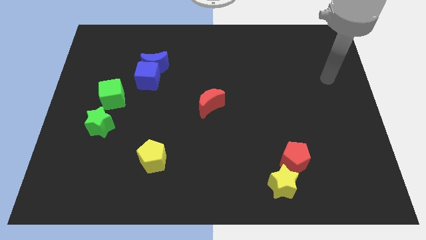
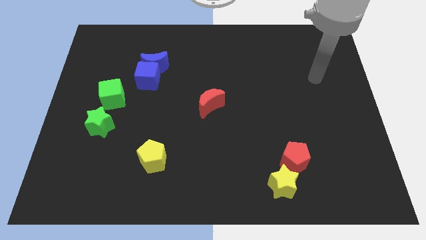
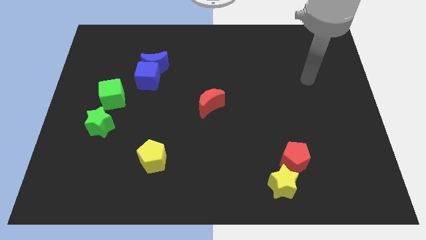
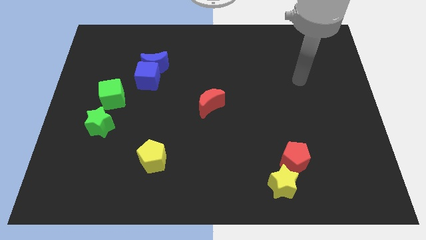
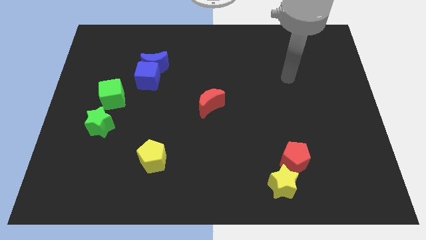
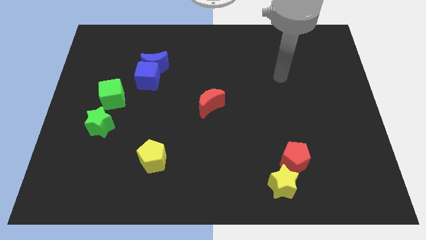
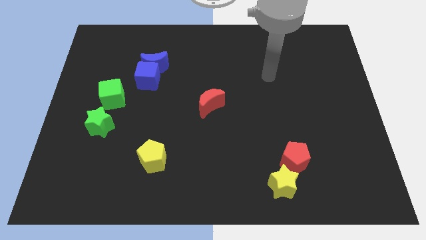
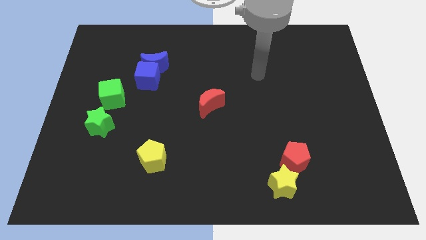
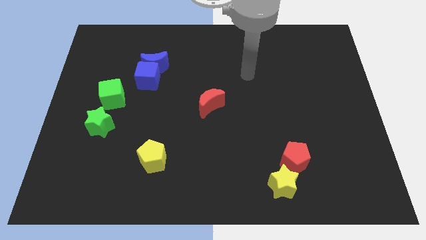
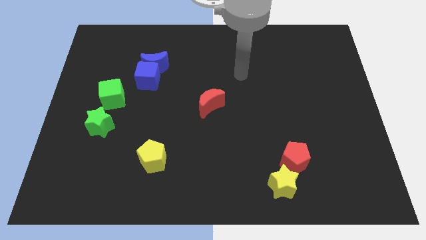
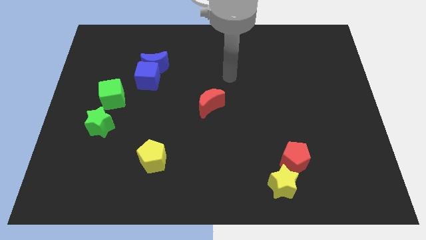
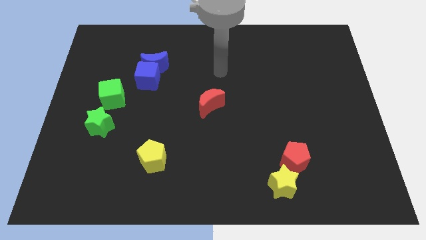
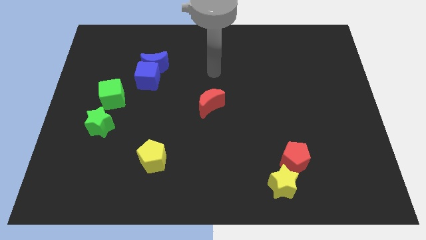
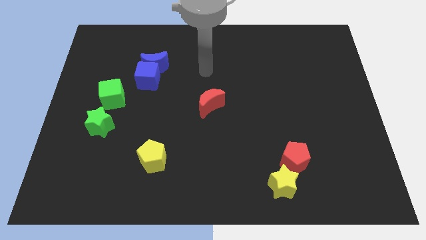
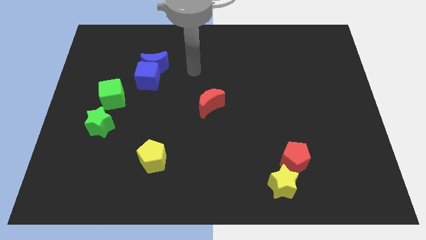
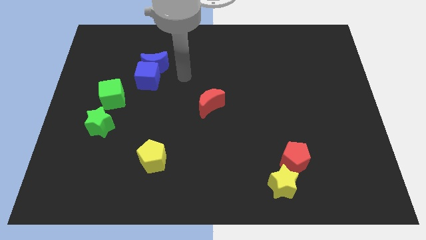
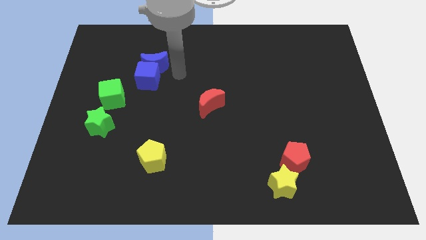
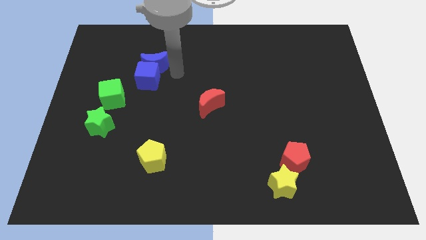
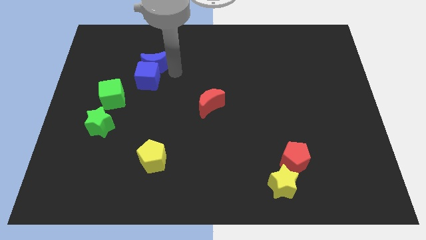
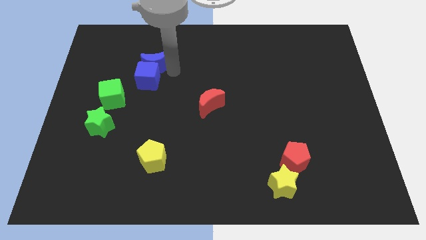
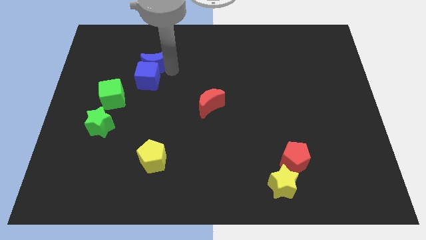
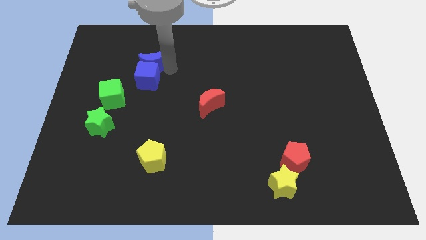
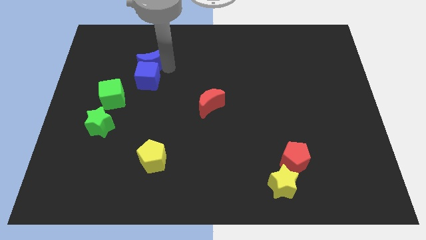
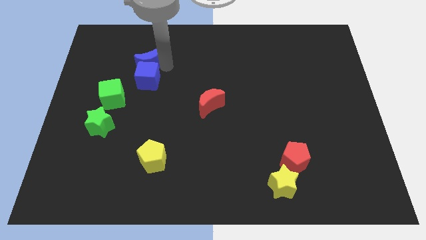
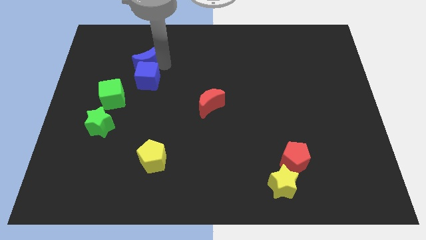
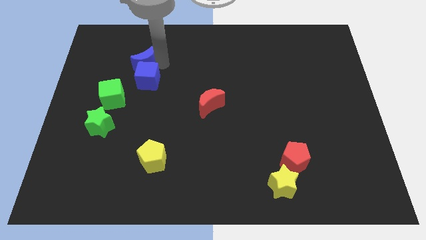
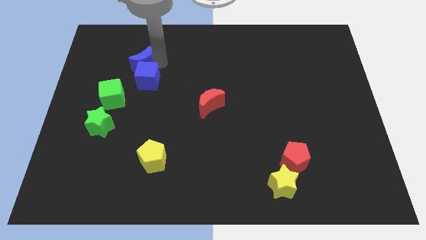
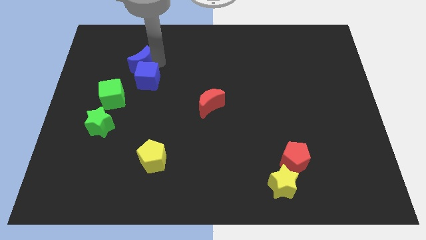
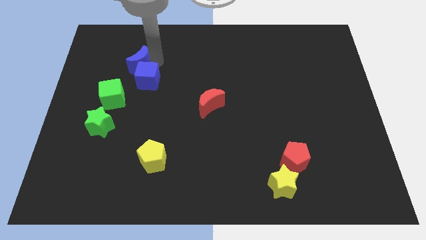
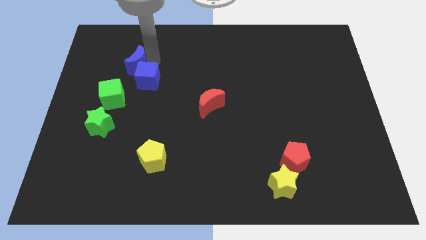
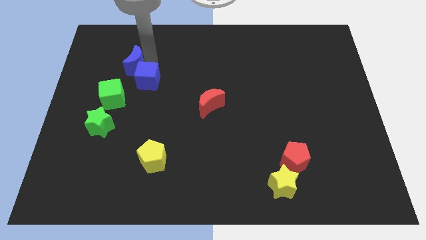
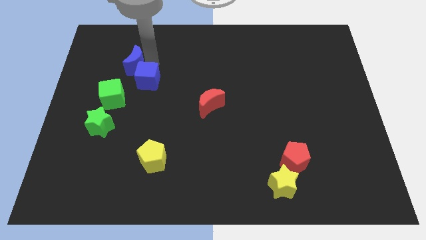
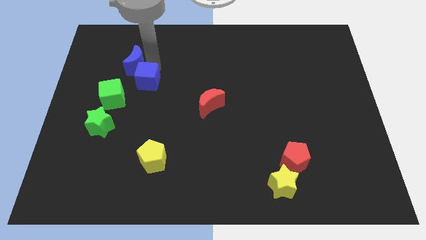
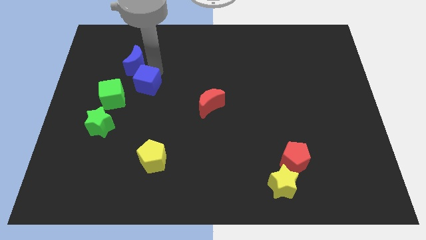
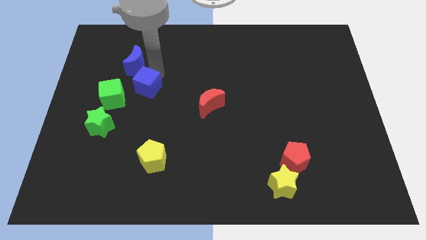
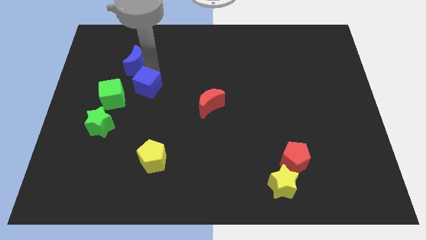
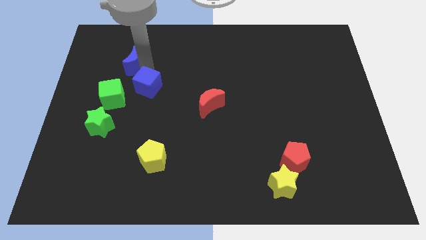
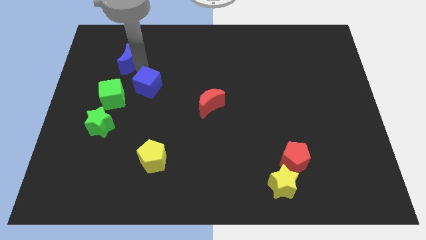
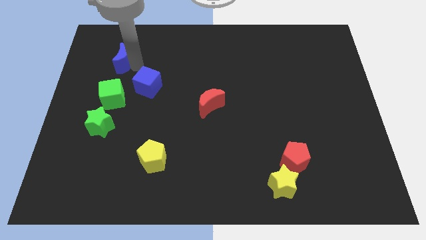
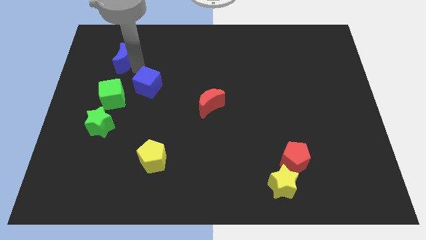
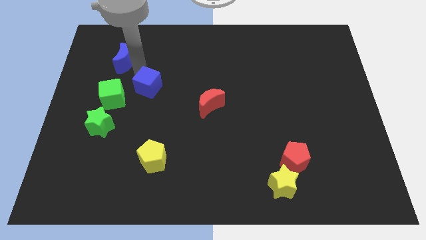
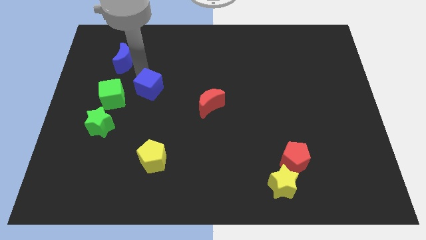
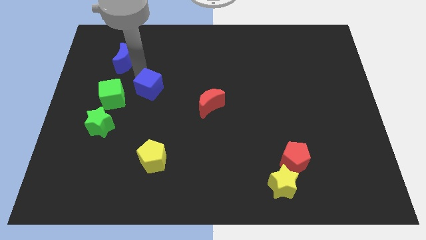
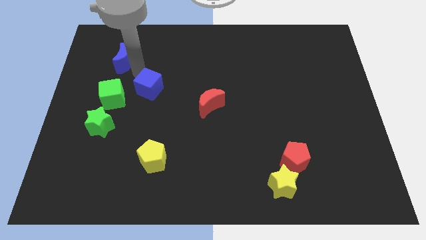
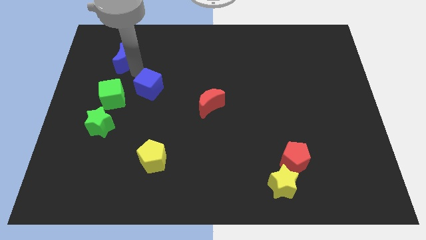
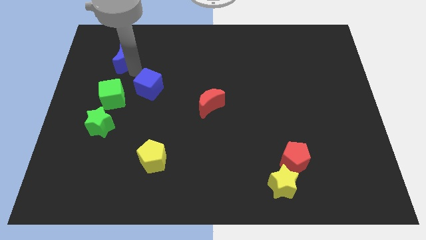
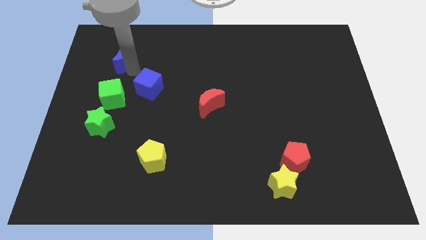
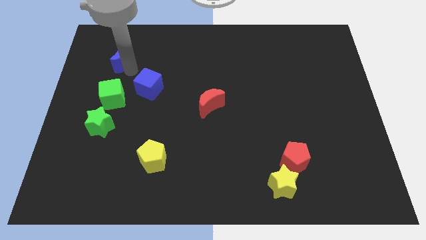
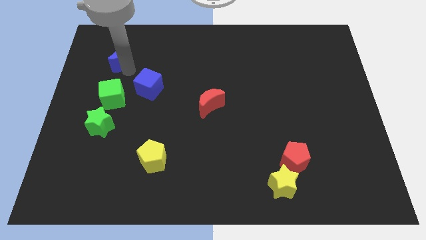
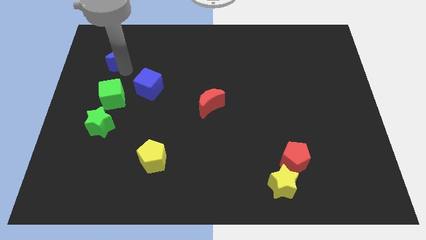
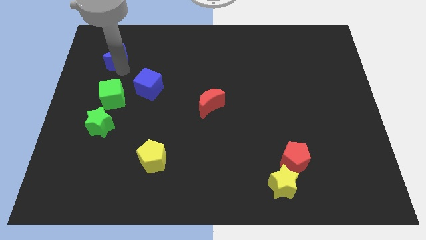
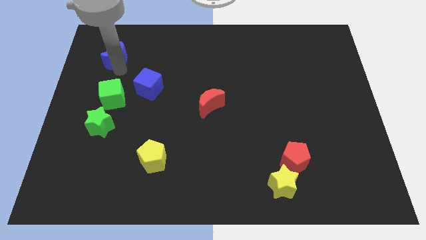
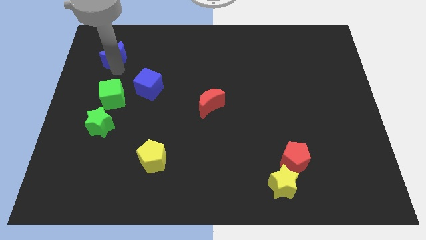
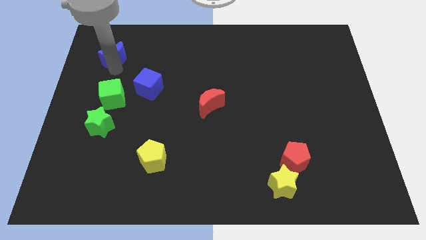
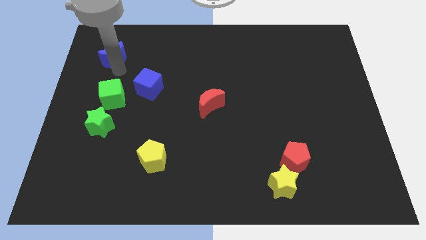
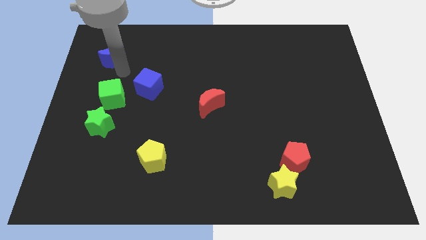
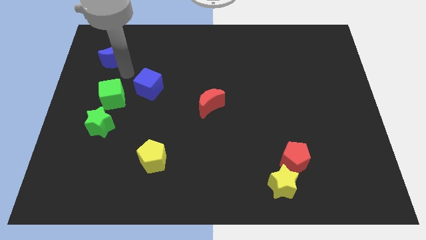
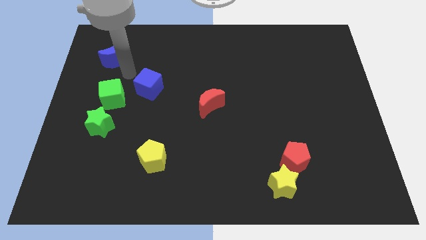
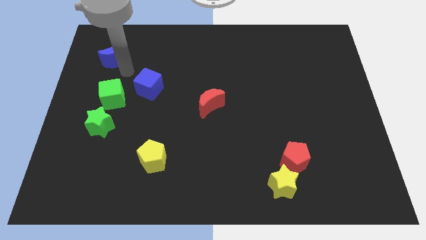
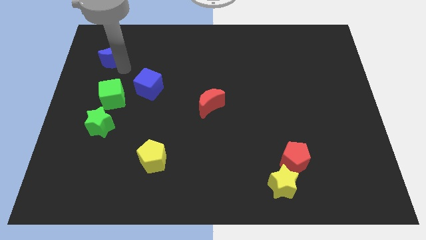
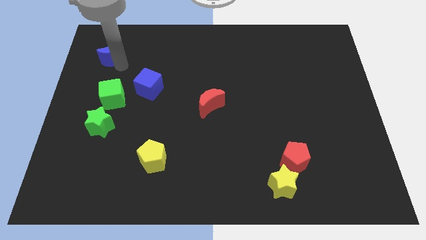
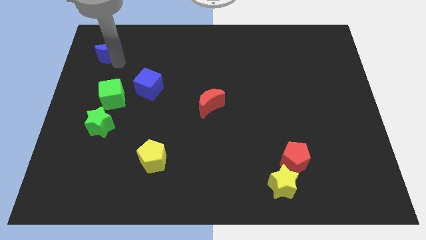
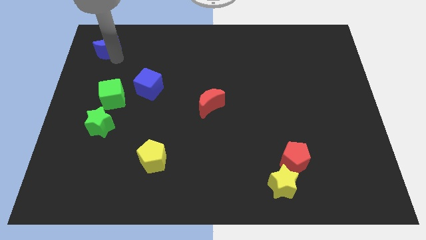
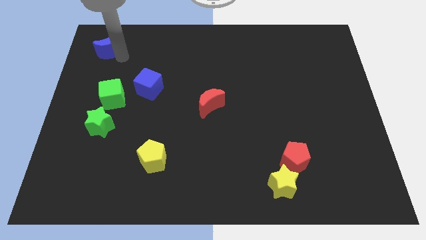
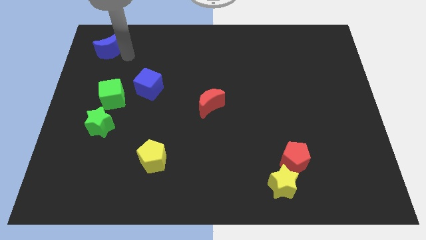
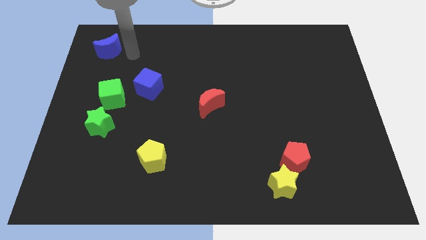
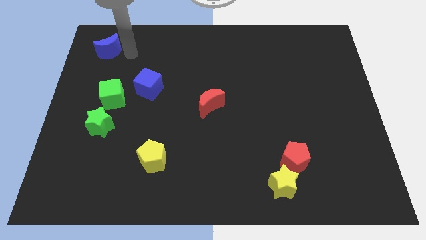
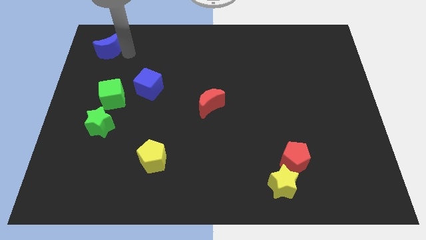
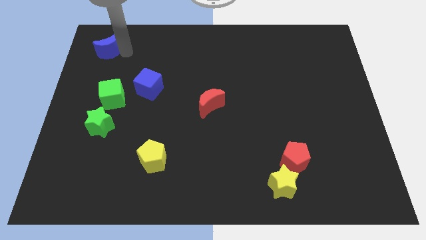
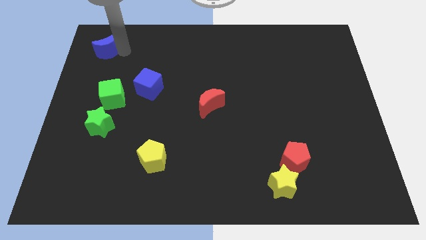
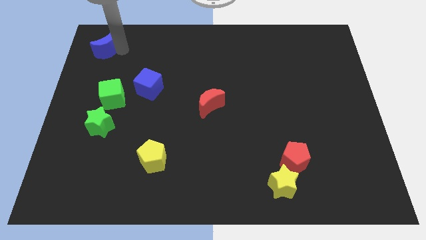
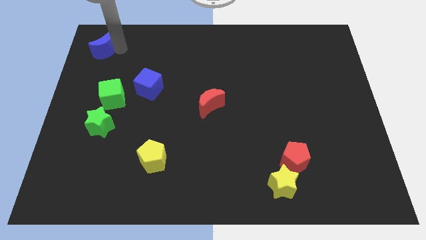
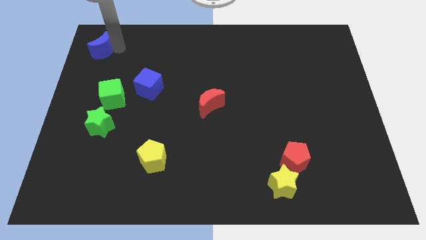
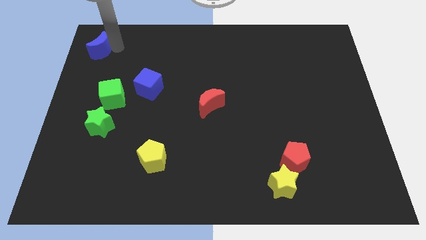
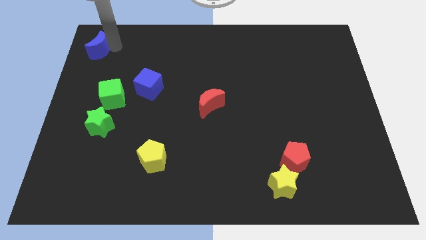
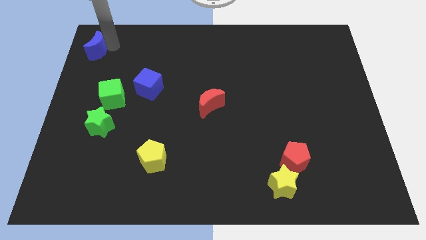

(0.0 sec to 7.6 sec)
move the blue moon to the top left
